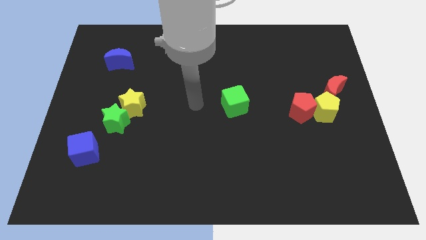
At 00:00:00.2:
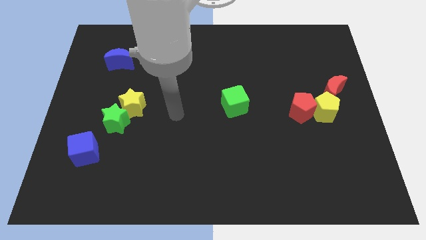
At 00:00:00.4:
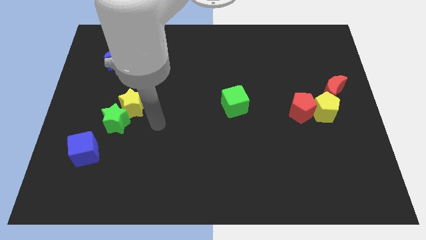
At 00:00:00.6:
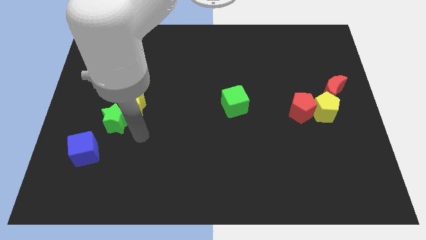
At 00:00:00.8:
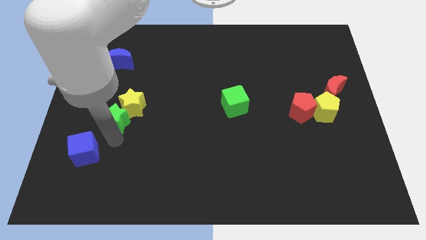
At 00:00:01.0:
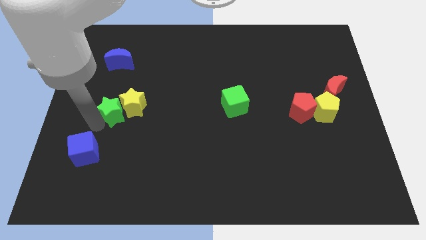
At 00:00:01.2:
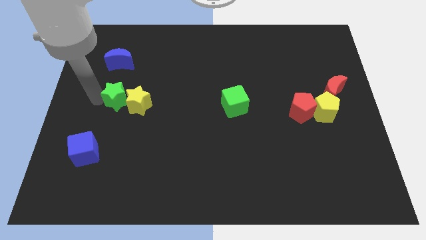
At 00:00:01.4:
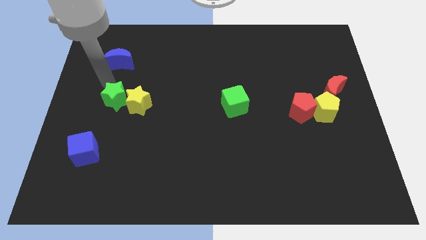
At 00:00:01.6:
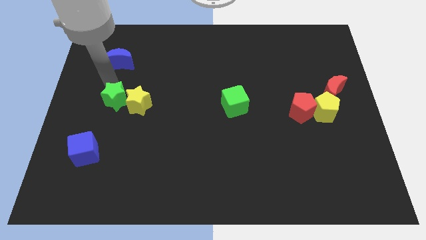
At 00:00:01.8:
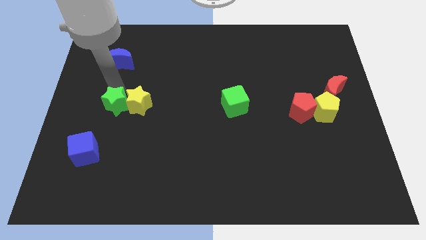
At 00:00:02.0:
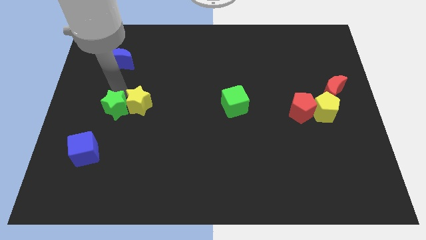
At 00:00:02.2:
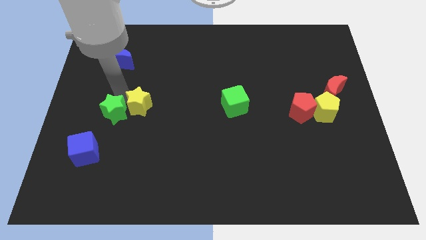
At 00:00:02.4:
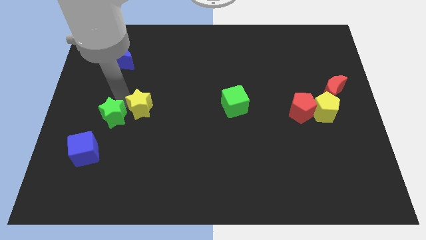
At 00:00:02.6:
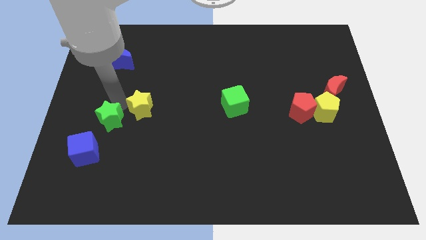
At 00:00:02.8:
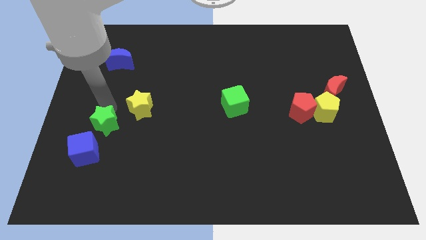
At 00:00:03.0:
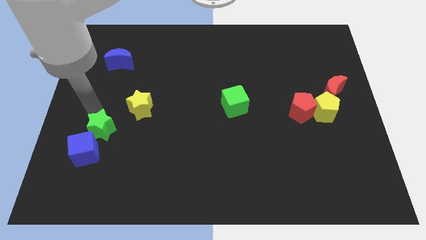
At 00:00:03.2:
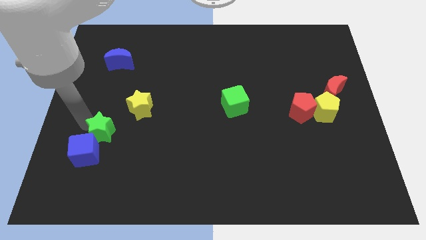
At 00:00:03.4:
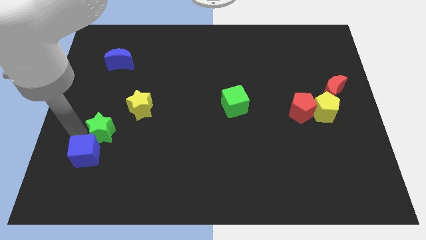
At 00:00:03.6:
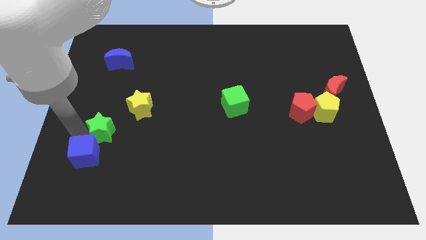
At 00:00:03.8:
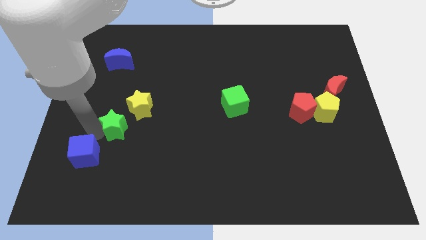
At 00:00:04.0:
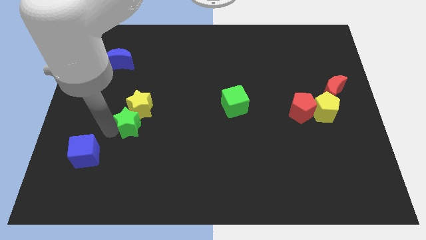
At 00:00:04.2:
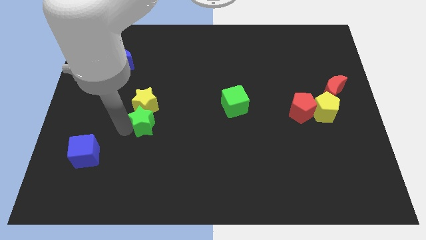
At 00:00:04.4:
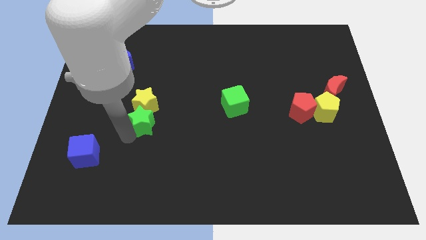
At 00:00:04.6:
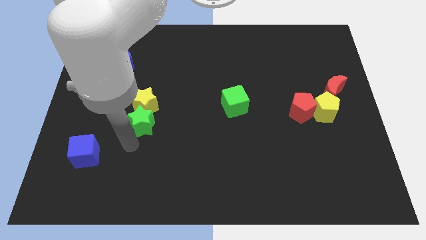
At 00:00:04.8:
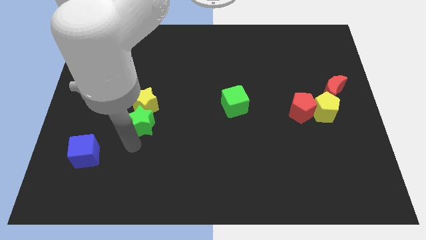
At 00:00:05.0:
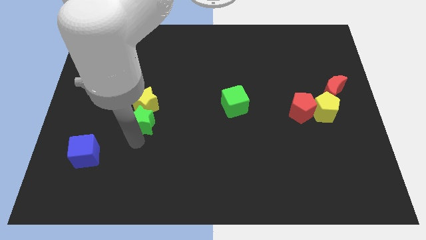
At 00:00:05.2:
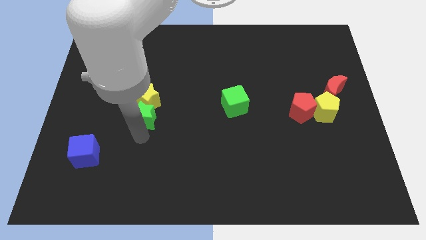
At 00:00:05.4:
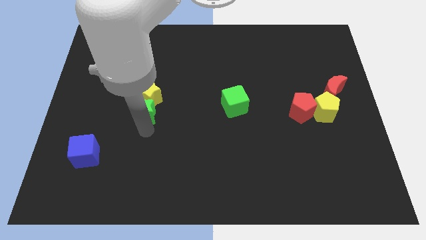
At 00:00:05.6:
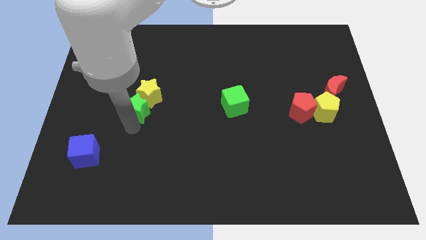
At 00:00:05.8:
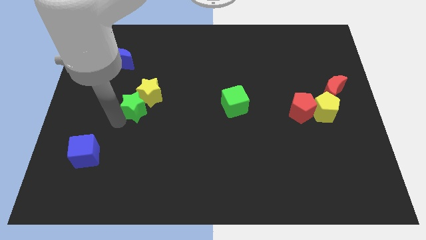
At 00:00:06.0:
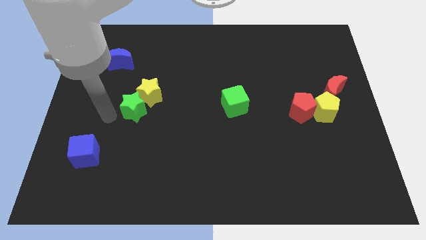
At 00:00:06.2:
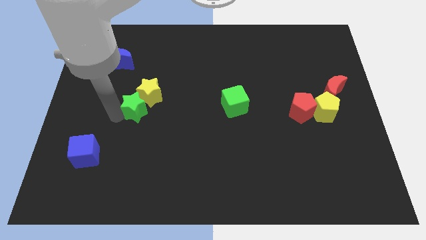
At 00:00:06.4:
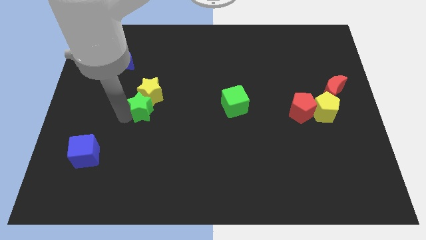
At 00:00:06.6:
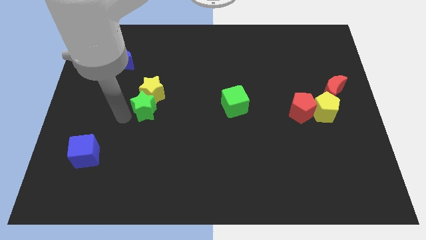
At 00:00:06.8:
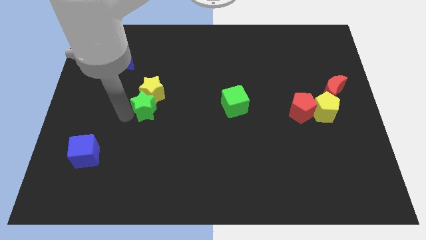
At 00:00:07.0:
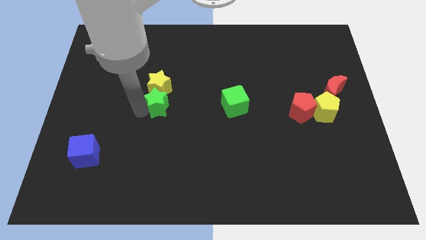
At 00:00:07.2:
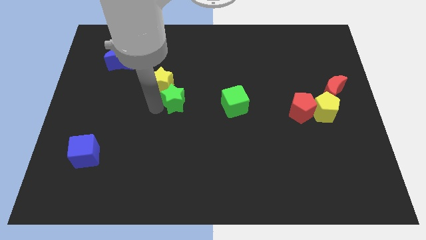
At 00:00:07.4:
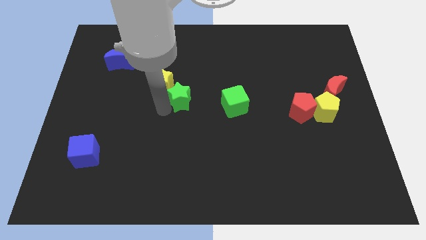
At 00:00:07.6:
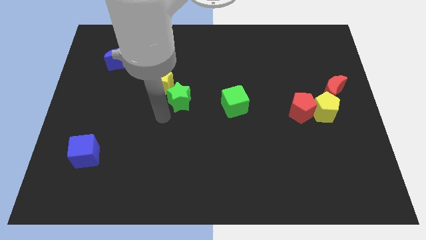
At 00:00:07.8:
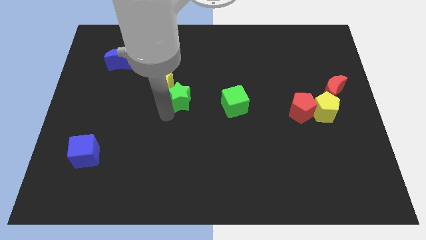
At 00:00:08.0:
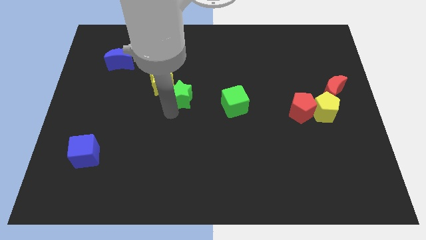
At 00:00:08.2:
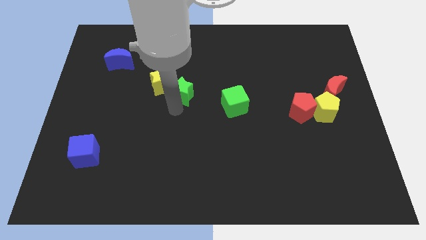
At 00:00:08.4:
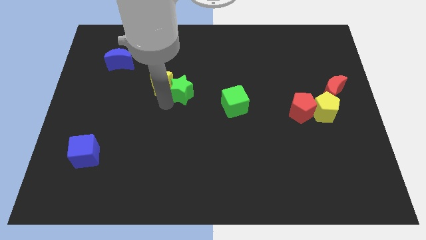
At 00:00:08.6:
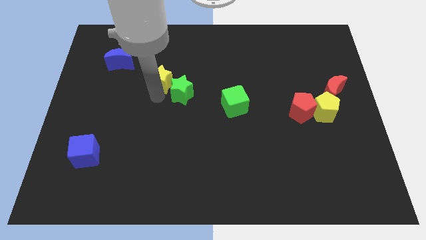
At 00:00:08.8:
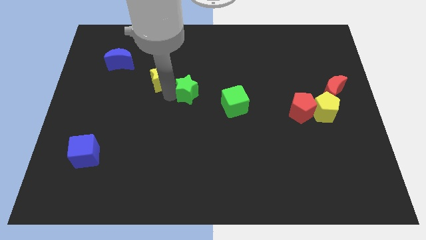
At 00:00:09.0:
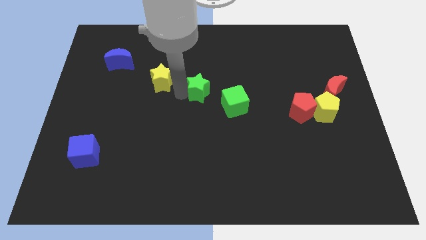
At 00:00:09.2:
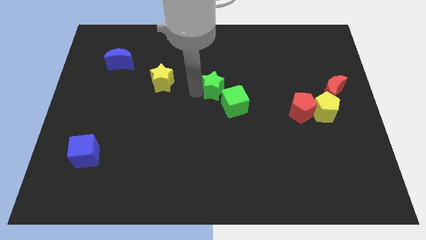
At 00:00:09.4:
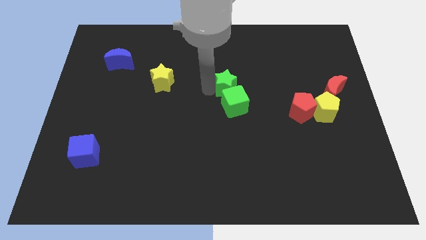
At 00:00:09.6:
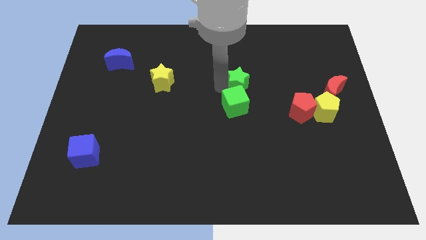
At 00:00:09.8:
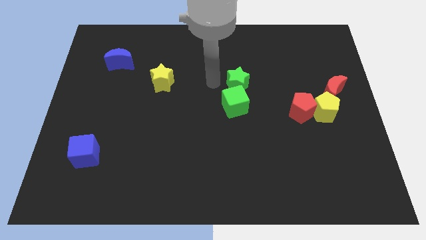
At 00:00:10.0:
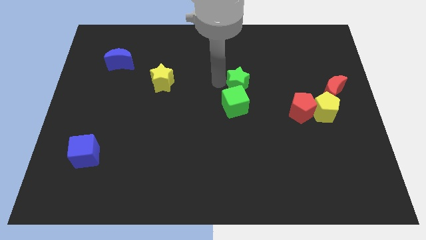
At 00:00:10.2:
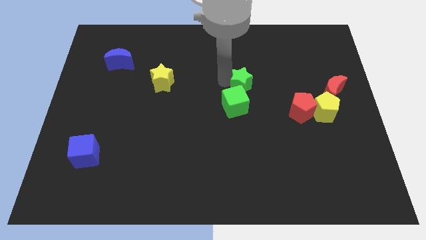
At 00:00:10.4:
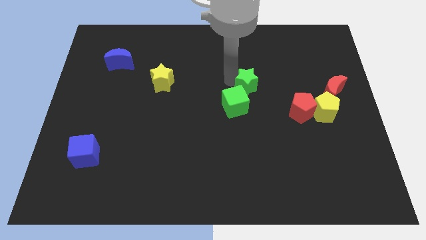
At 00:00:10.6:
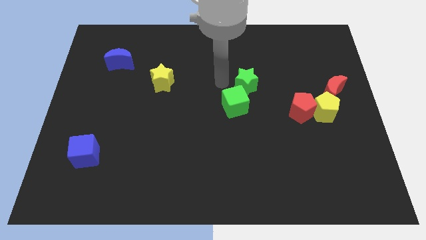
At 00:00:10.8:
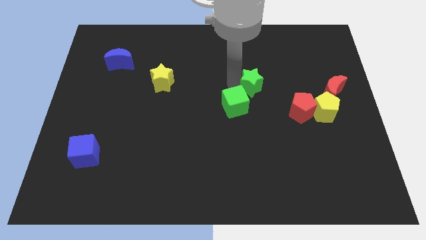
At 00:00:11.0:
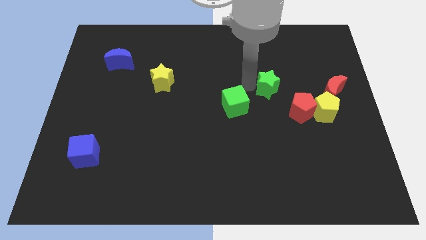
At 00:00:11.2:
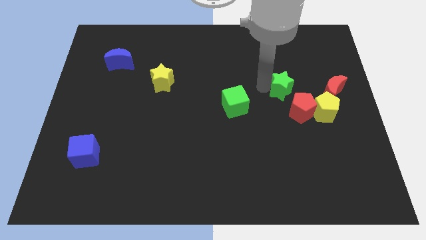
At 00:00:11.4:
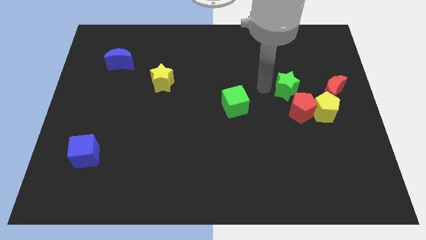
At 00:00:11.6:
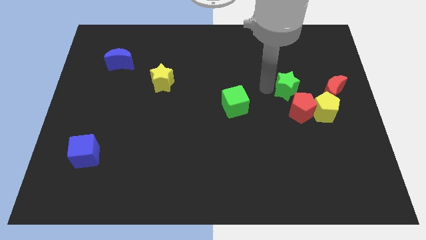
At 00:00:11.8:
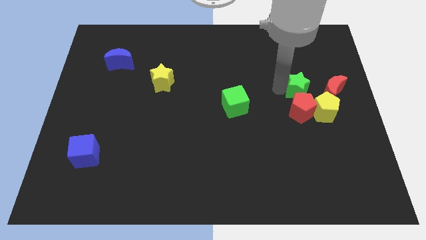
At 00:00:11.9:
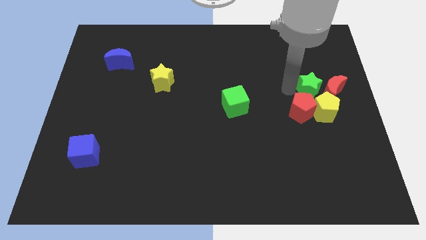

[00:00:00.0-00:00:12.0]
slide the green star close to the red moon

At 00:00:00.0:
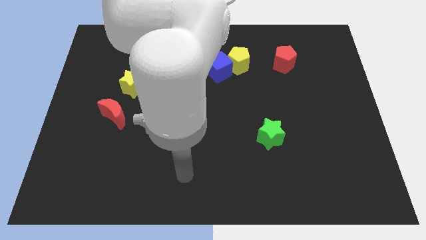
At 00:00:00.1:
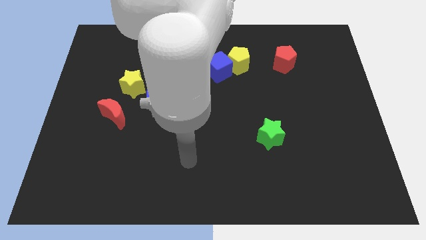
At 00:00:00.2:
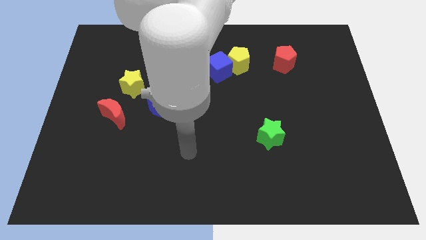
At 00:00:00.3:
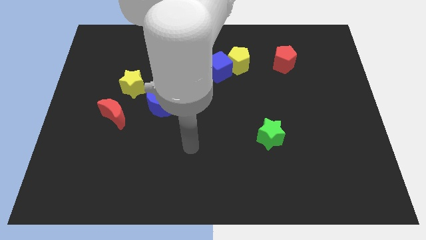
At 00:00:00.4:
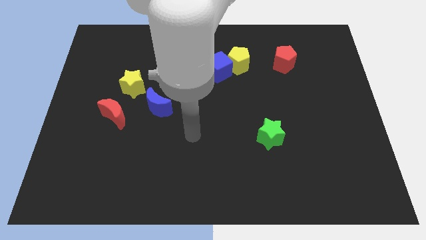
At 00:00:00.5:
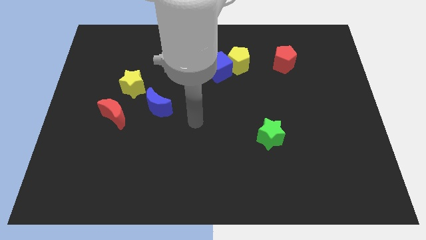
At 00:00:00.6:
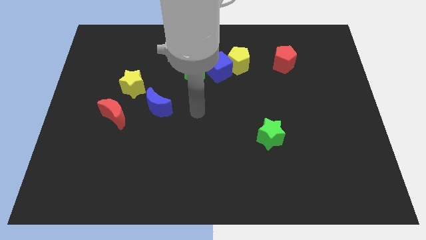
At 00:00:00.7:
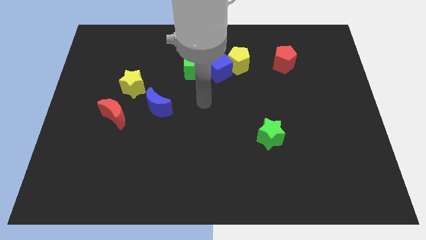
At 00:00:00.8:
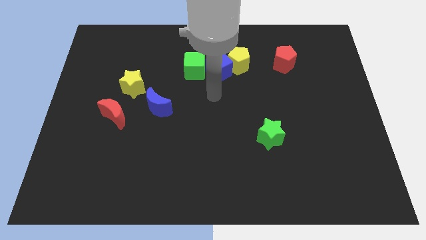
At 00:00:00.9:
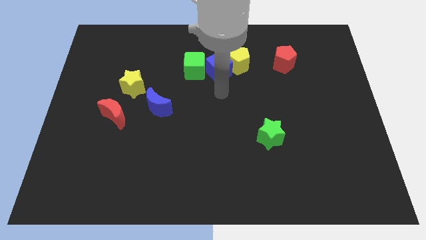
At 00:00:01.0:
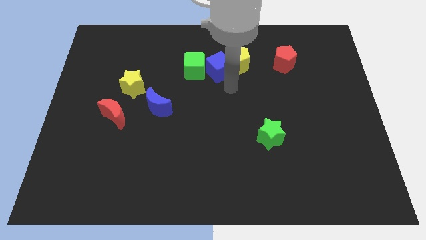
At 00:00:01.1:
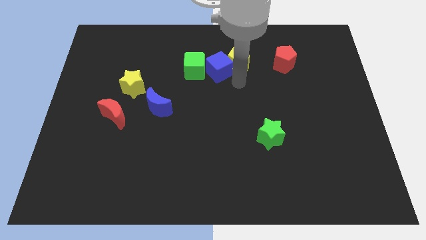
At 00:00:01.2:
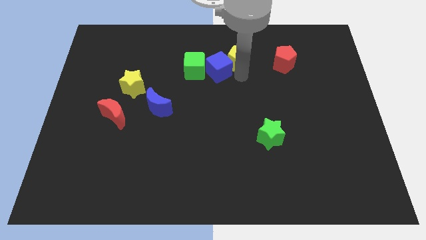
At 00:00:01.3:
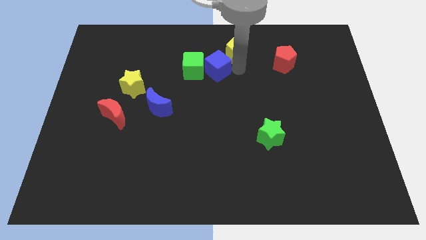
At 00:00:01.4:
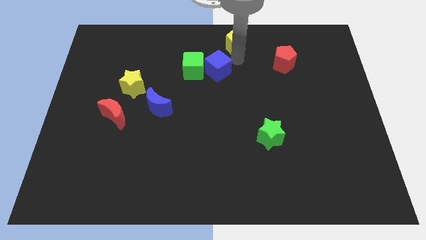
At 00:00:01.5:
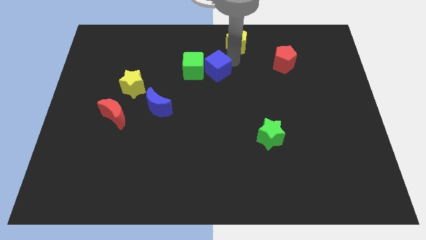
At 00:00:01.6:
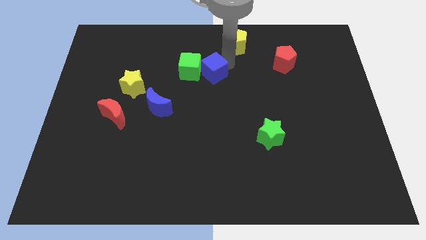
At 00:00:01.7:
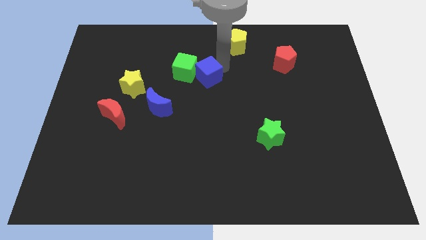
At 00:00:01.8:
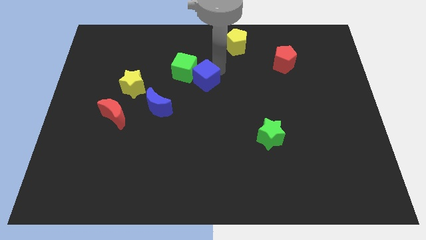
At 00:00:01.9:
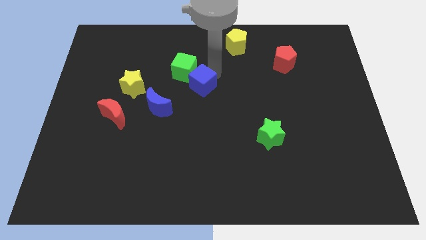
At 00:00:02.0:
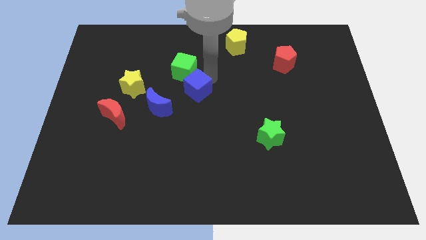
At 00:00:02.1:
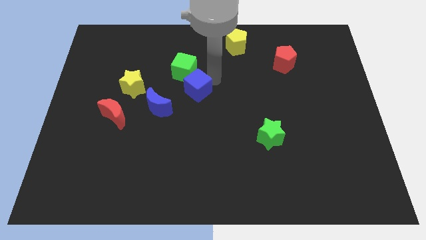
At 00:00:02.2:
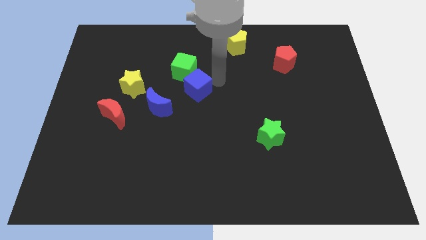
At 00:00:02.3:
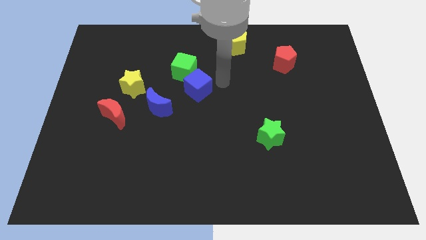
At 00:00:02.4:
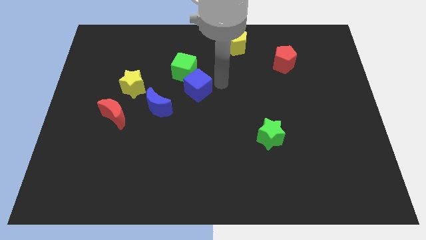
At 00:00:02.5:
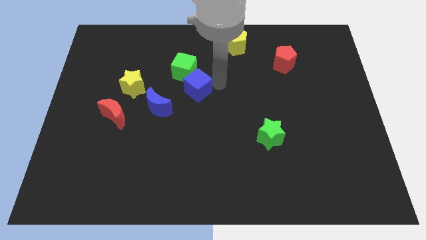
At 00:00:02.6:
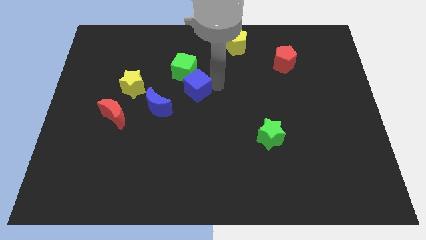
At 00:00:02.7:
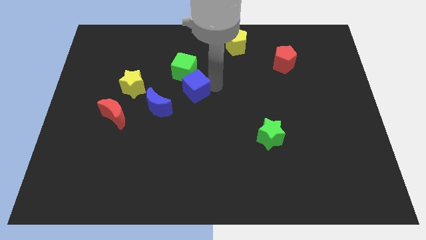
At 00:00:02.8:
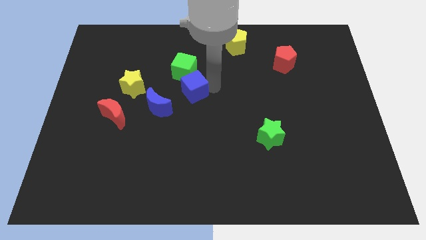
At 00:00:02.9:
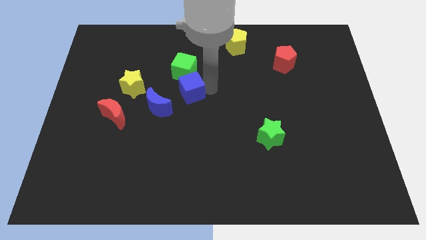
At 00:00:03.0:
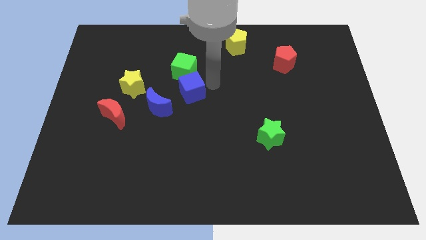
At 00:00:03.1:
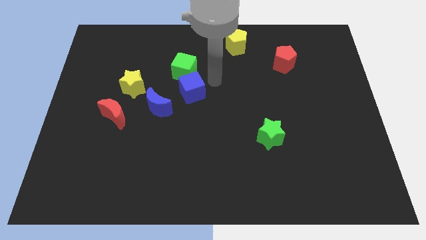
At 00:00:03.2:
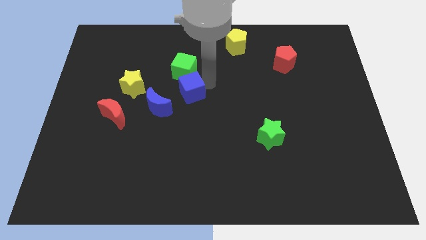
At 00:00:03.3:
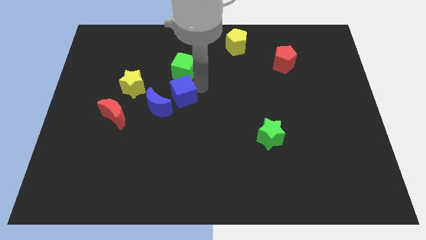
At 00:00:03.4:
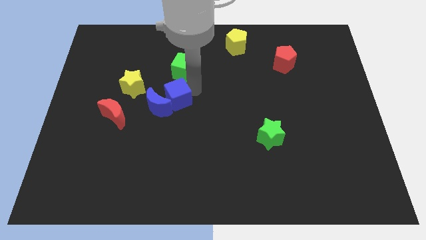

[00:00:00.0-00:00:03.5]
put the blue cube towards the blue moon
